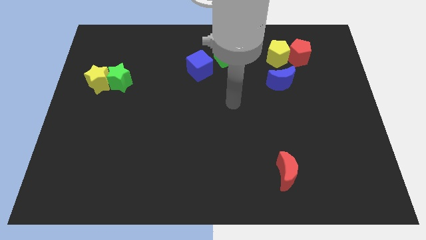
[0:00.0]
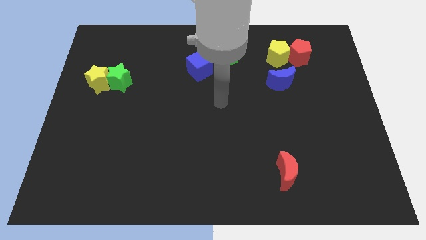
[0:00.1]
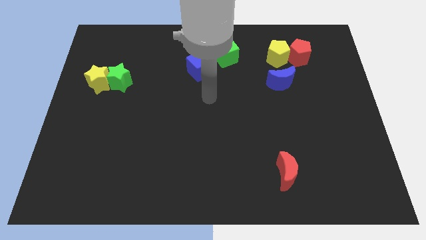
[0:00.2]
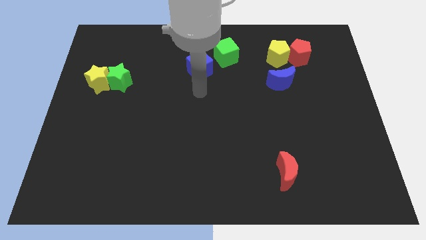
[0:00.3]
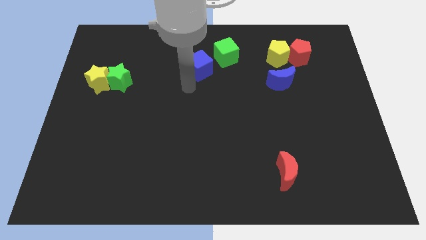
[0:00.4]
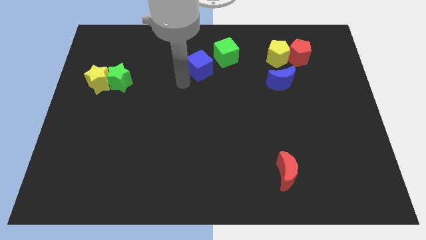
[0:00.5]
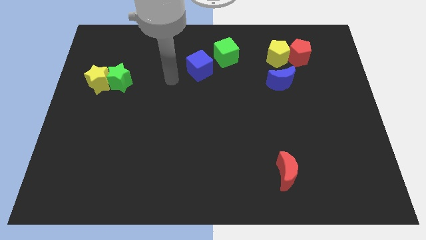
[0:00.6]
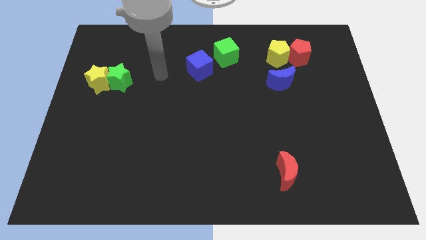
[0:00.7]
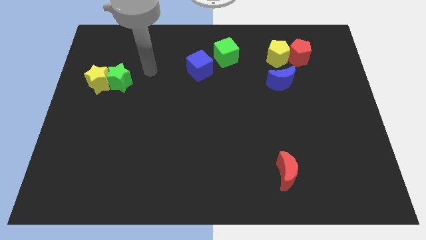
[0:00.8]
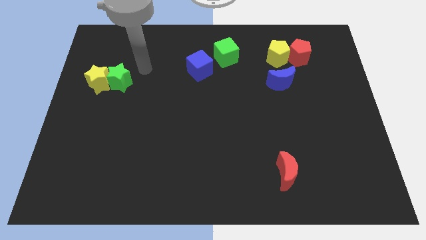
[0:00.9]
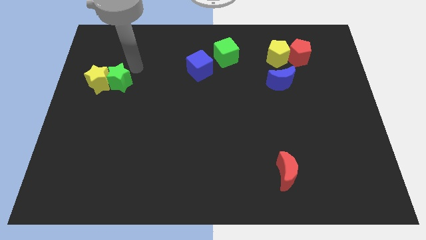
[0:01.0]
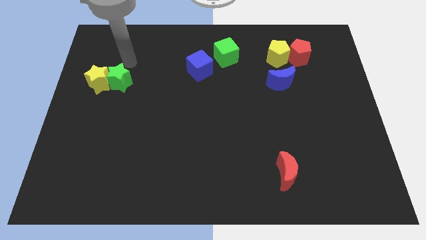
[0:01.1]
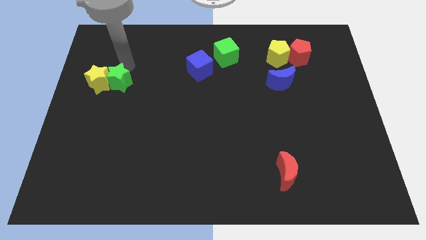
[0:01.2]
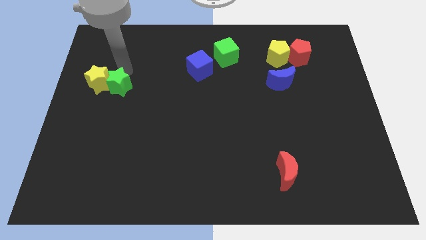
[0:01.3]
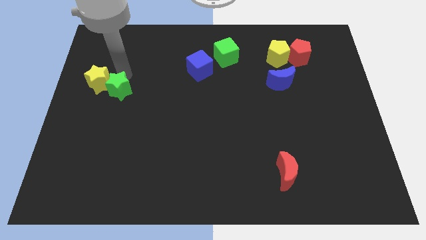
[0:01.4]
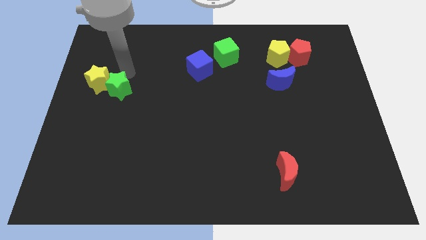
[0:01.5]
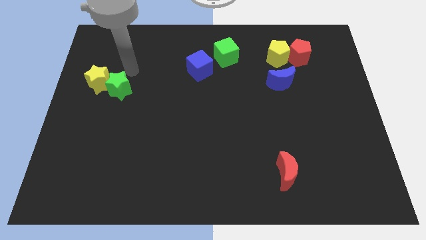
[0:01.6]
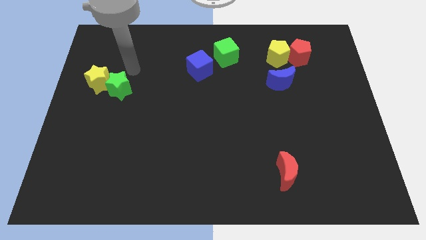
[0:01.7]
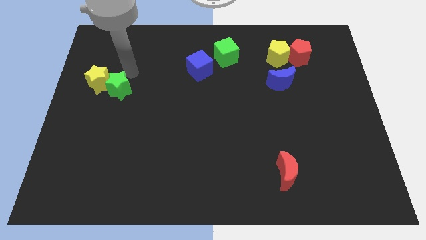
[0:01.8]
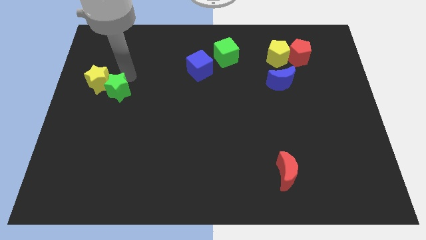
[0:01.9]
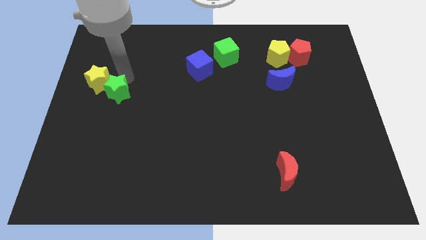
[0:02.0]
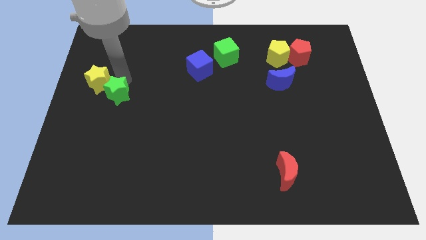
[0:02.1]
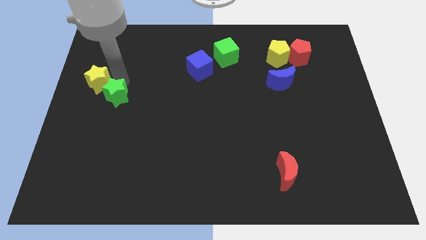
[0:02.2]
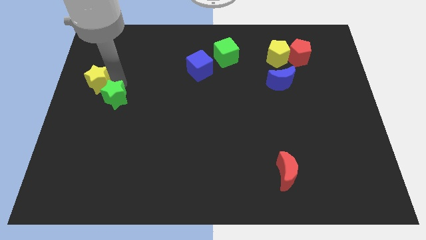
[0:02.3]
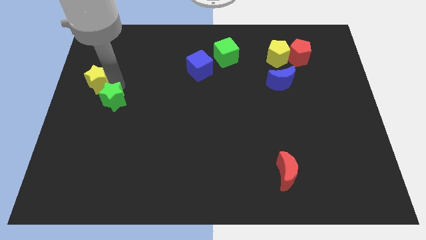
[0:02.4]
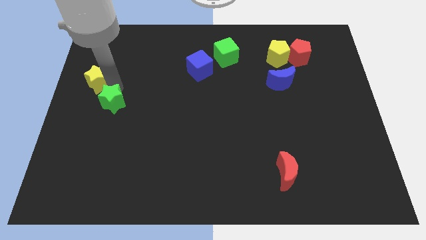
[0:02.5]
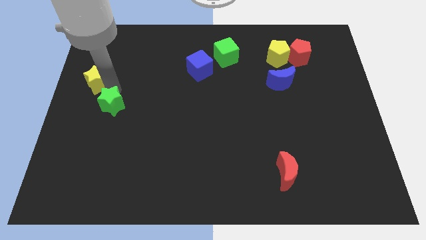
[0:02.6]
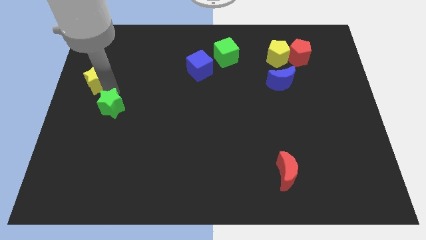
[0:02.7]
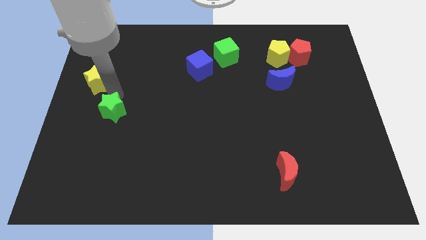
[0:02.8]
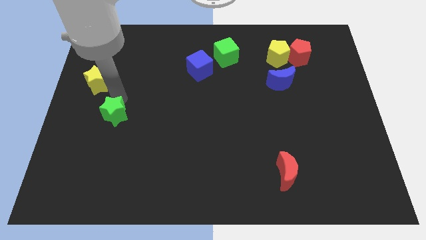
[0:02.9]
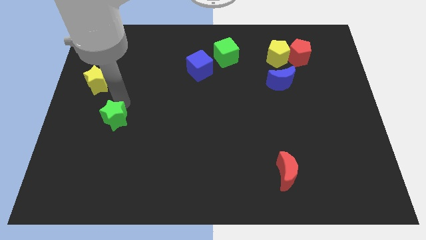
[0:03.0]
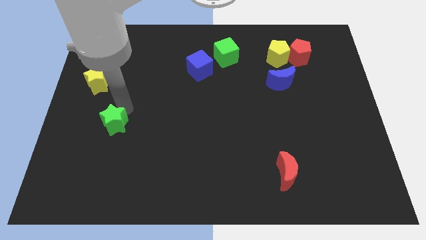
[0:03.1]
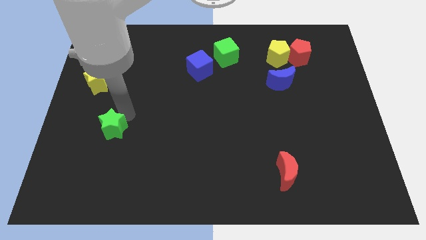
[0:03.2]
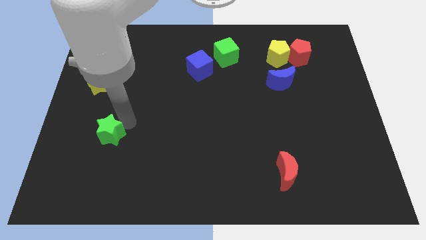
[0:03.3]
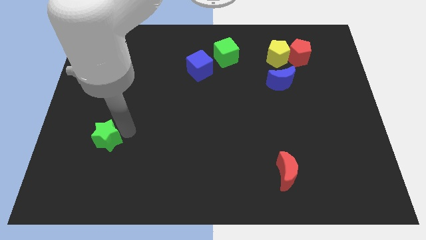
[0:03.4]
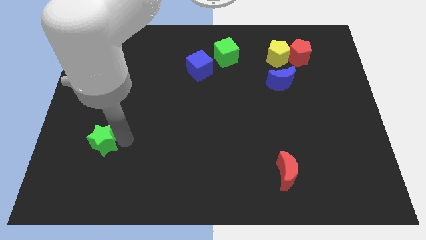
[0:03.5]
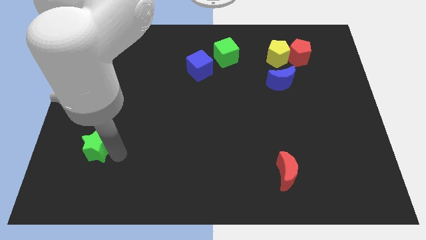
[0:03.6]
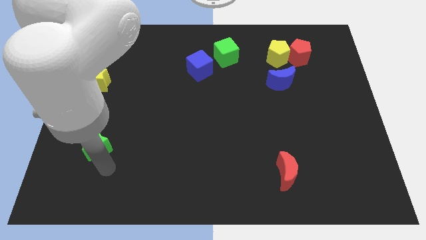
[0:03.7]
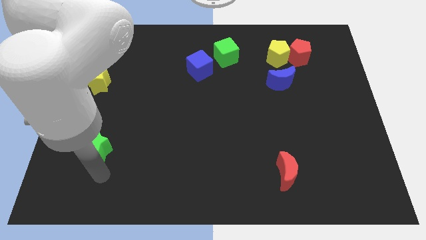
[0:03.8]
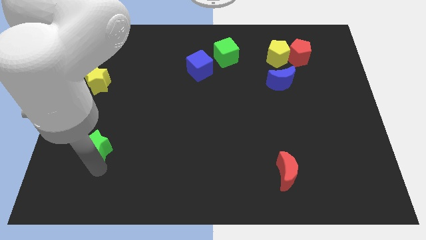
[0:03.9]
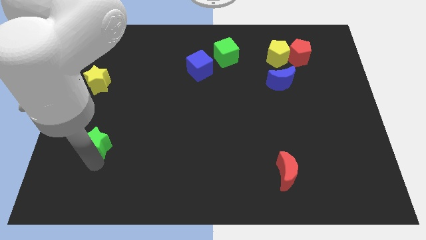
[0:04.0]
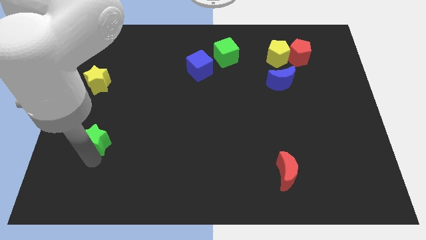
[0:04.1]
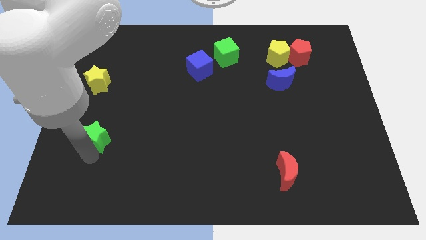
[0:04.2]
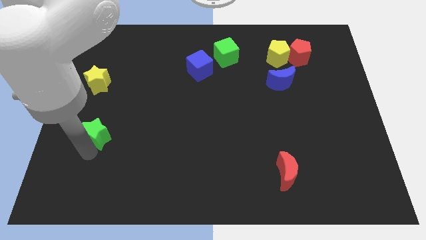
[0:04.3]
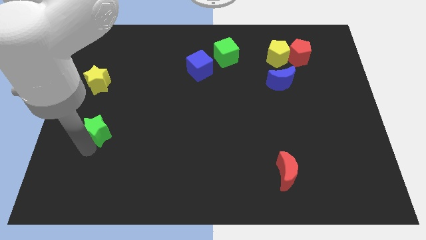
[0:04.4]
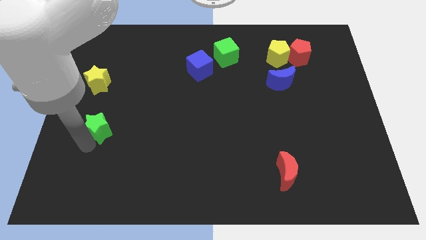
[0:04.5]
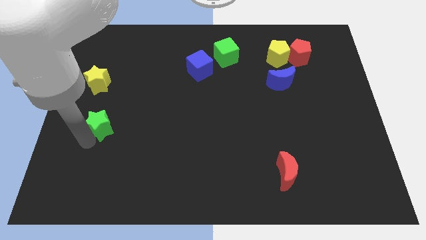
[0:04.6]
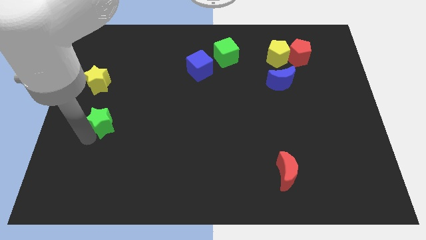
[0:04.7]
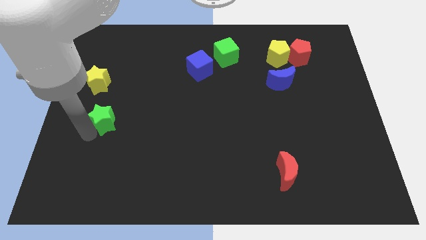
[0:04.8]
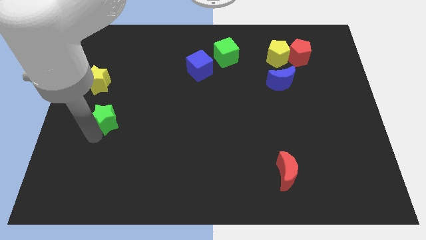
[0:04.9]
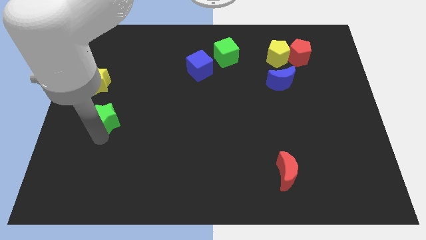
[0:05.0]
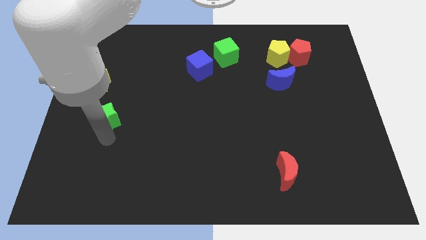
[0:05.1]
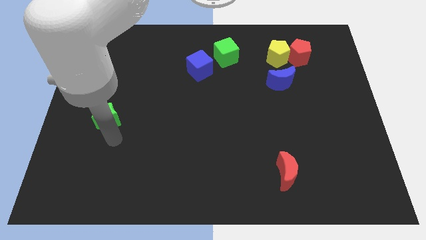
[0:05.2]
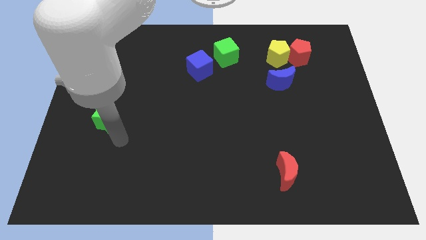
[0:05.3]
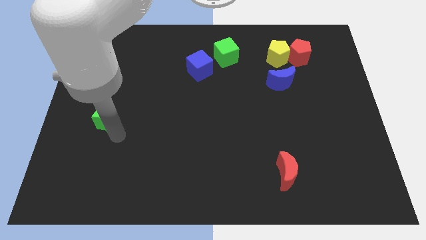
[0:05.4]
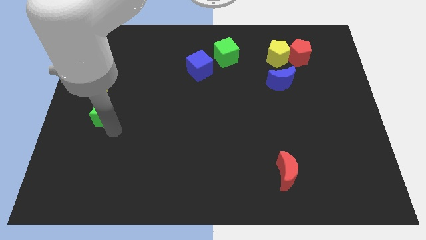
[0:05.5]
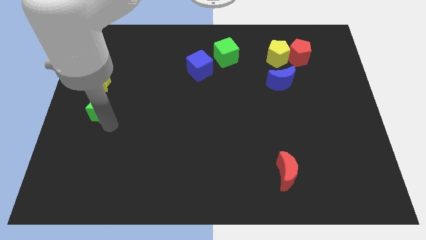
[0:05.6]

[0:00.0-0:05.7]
put the green star to the left side

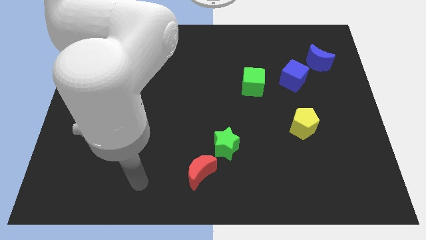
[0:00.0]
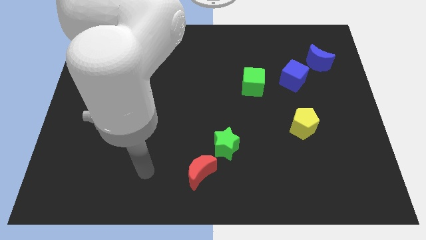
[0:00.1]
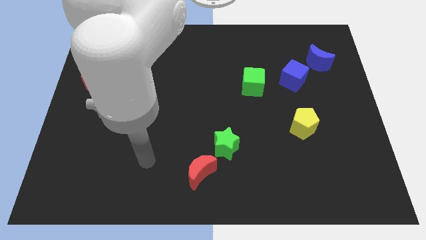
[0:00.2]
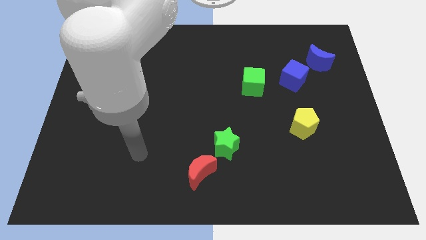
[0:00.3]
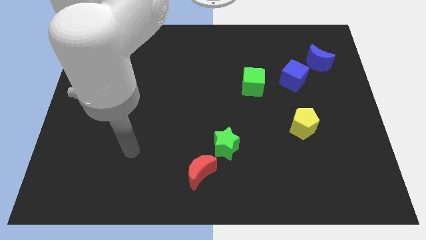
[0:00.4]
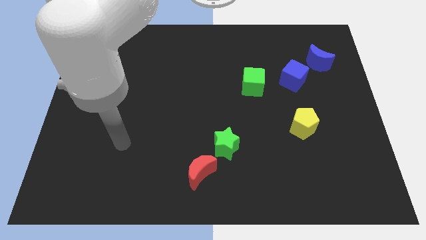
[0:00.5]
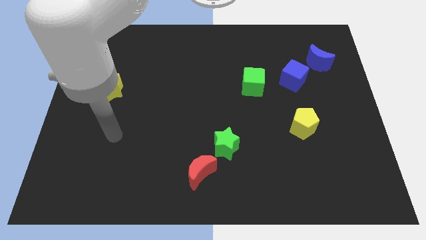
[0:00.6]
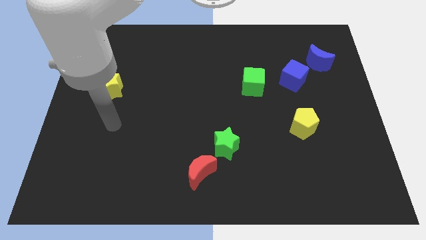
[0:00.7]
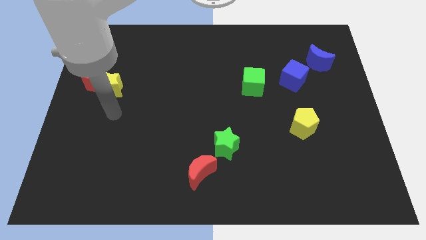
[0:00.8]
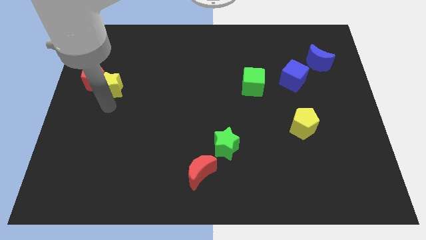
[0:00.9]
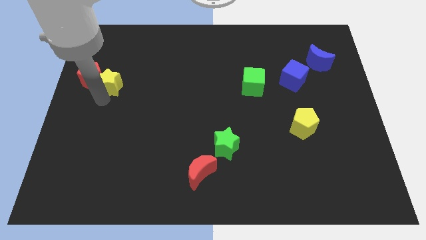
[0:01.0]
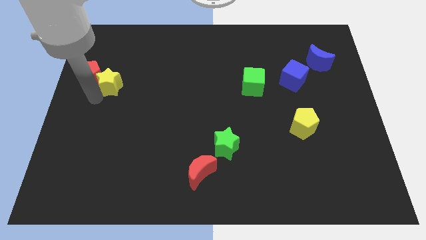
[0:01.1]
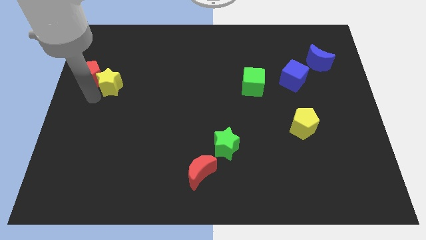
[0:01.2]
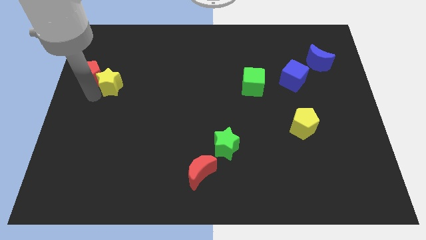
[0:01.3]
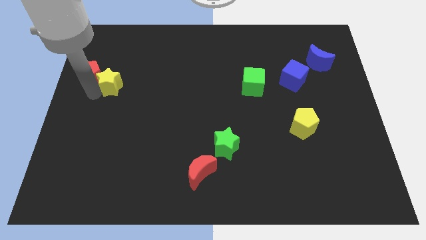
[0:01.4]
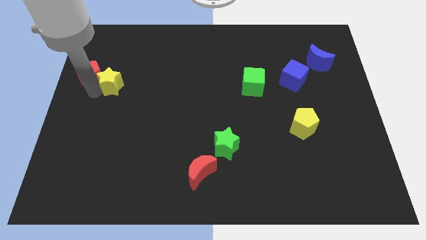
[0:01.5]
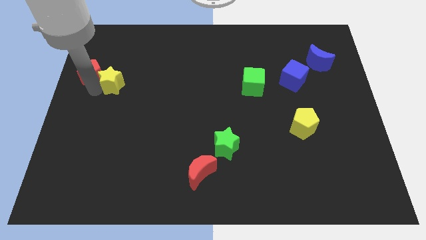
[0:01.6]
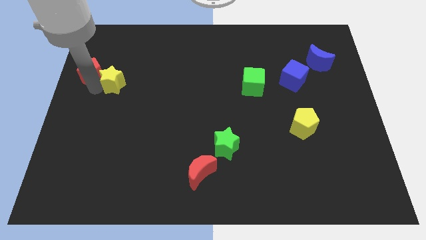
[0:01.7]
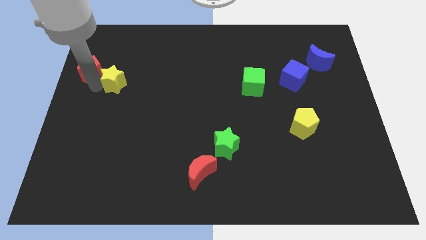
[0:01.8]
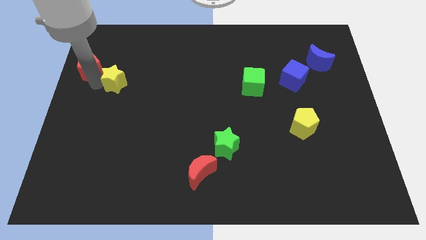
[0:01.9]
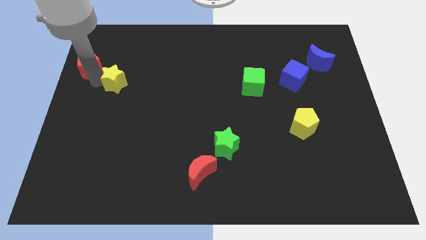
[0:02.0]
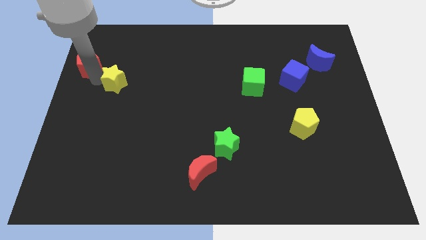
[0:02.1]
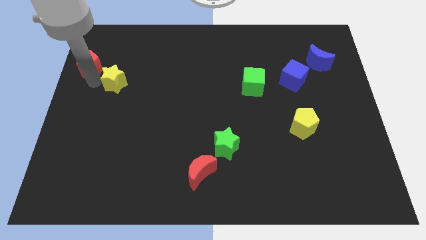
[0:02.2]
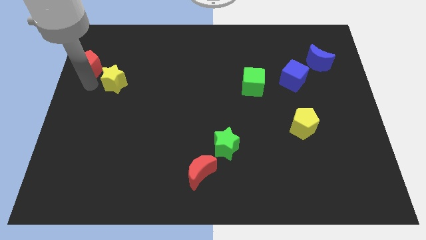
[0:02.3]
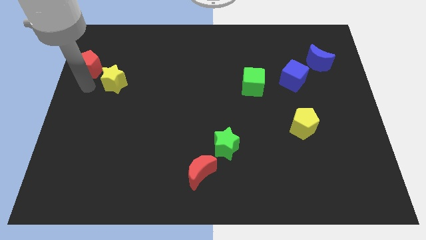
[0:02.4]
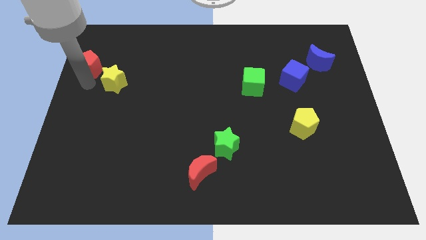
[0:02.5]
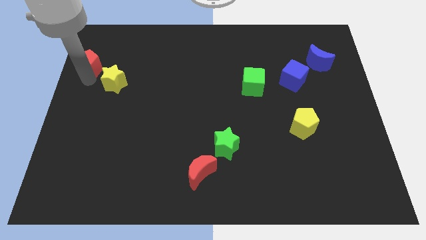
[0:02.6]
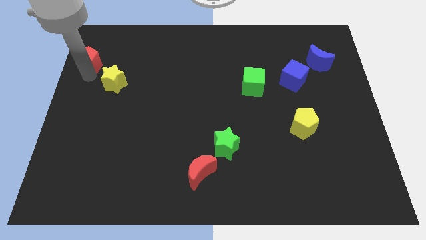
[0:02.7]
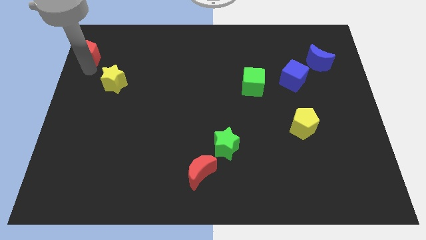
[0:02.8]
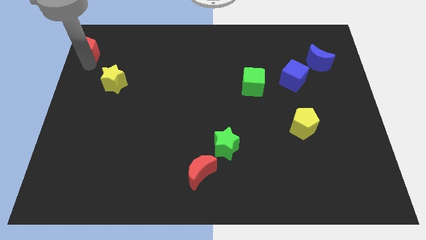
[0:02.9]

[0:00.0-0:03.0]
put the red pentagon to the upper left corner
